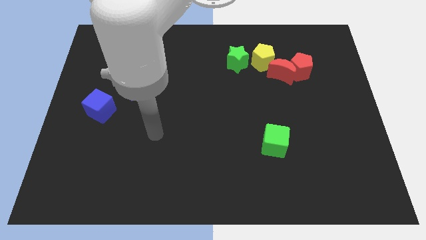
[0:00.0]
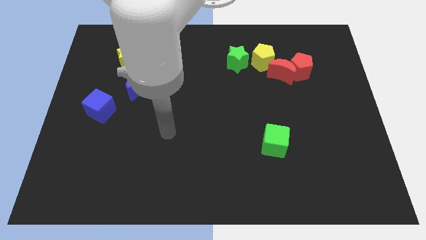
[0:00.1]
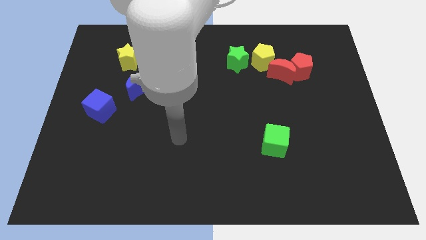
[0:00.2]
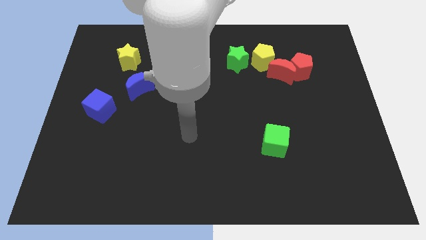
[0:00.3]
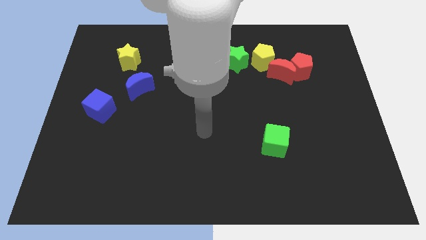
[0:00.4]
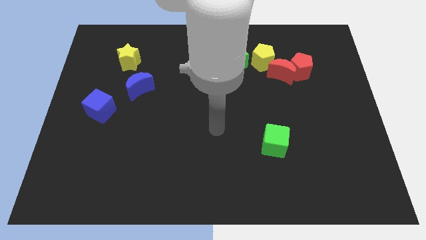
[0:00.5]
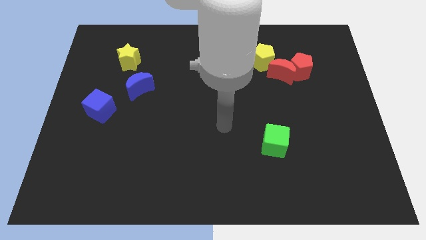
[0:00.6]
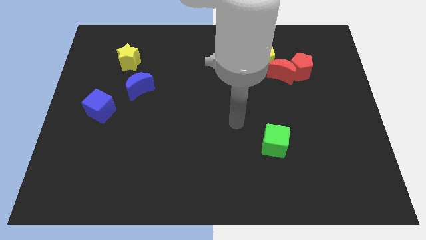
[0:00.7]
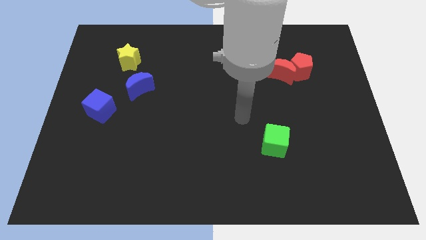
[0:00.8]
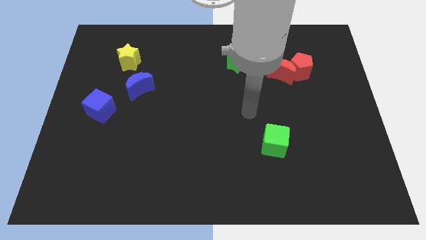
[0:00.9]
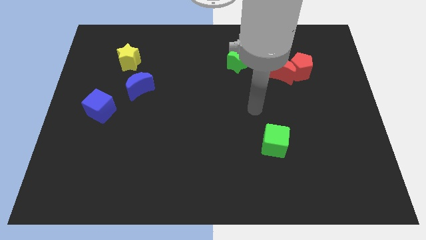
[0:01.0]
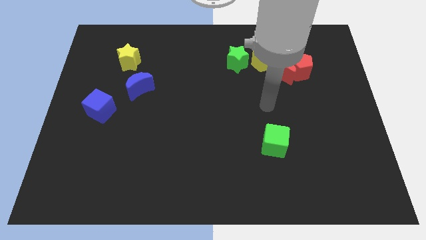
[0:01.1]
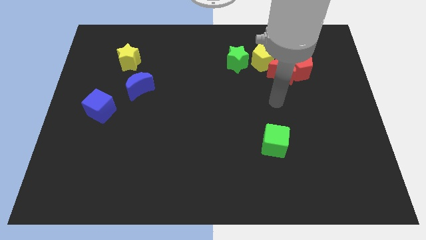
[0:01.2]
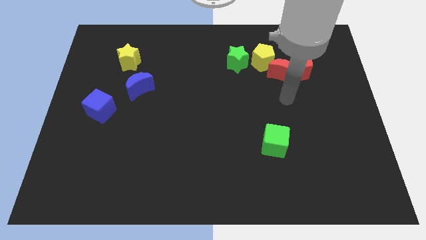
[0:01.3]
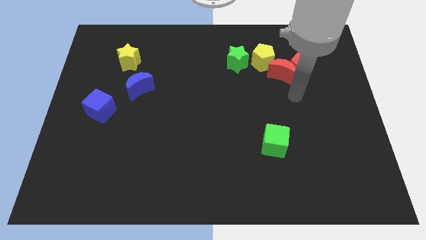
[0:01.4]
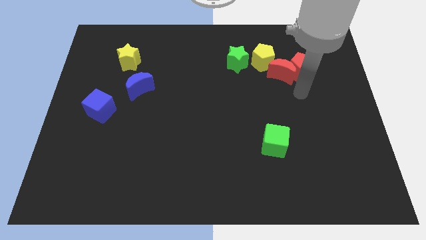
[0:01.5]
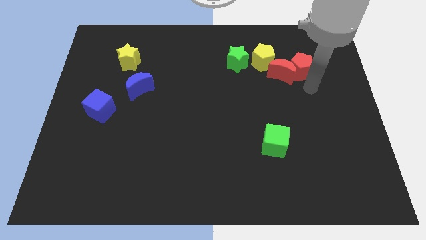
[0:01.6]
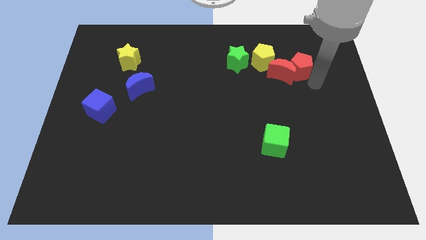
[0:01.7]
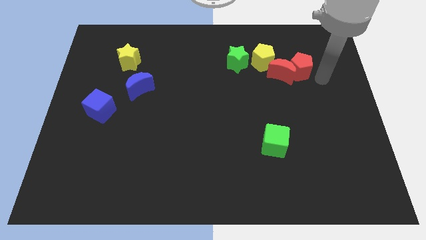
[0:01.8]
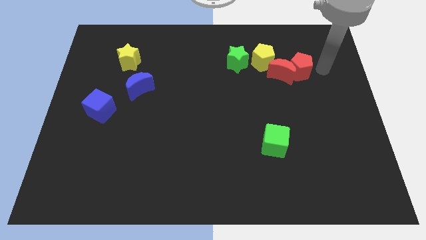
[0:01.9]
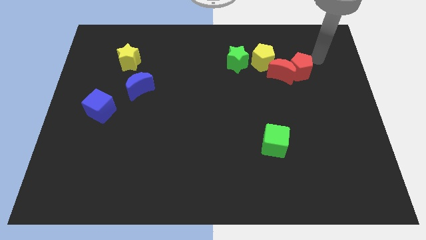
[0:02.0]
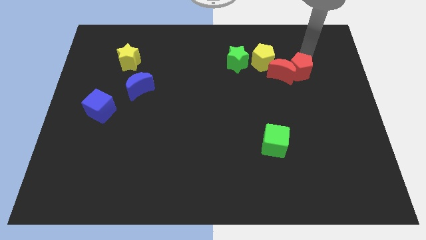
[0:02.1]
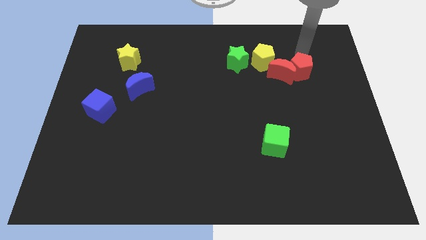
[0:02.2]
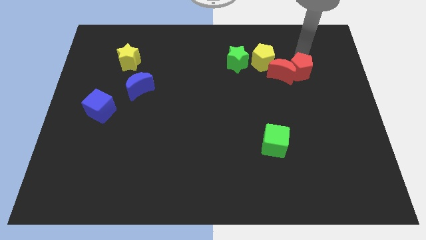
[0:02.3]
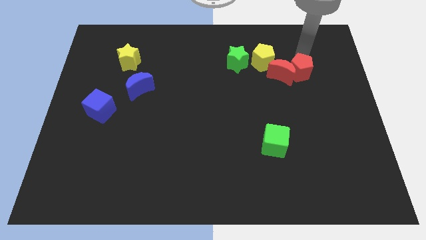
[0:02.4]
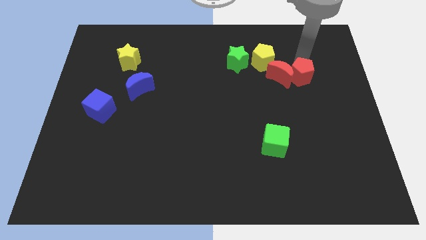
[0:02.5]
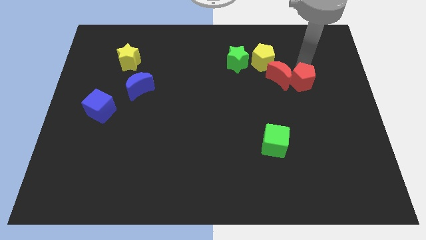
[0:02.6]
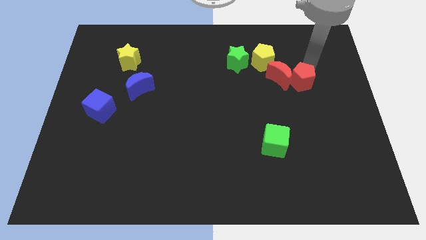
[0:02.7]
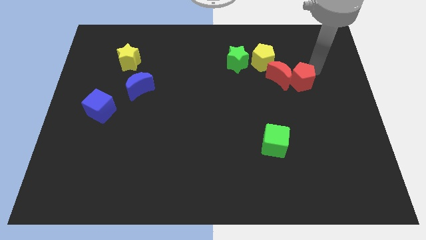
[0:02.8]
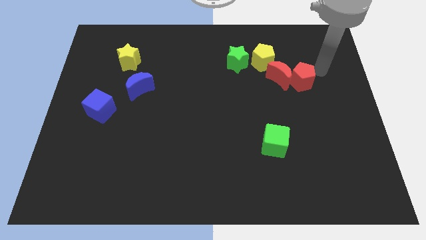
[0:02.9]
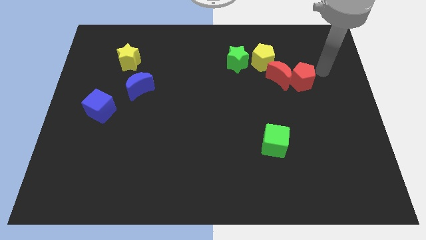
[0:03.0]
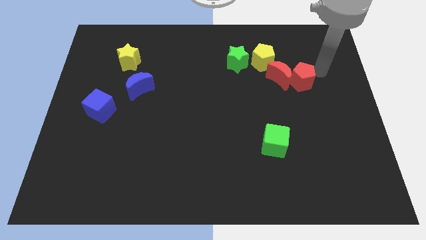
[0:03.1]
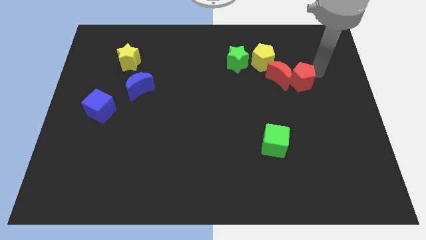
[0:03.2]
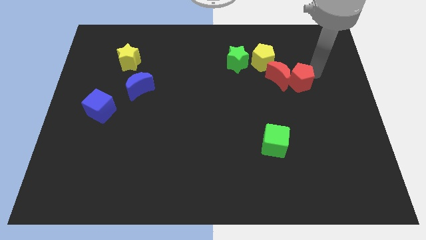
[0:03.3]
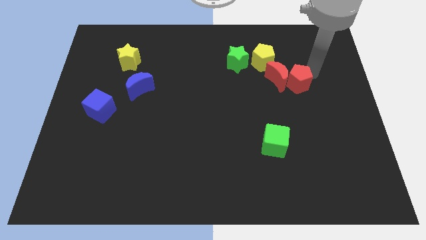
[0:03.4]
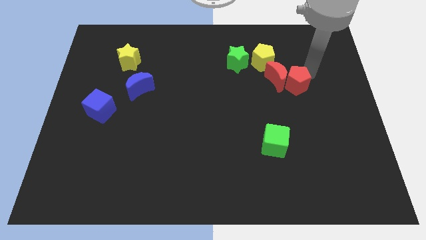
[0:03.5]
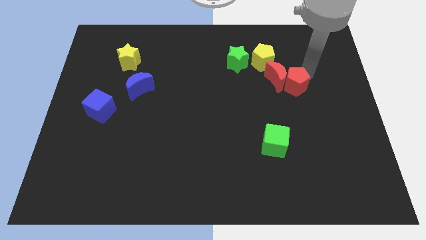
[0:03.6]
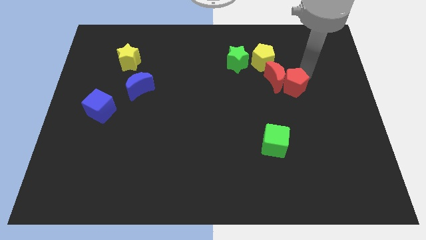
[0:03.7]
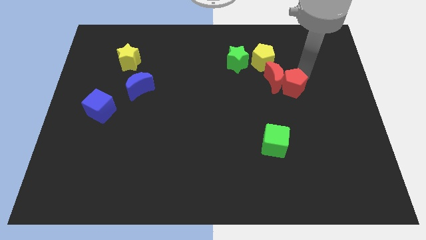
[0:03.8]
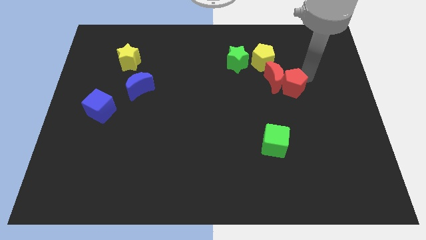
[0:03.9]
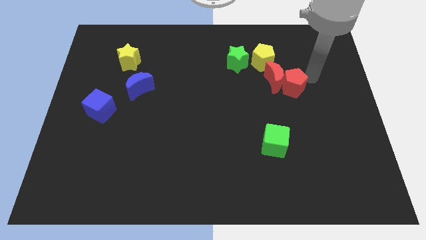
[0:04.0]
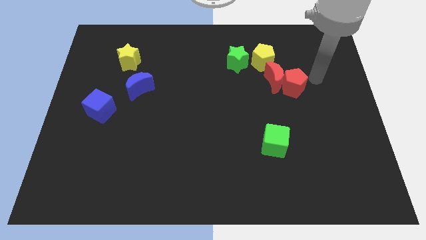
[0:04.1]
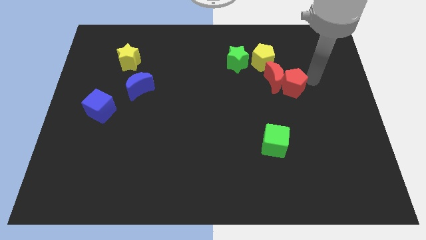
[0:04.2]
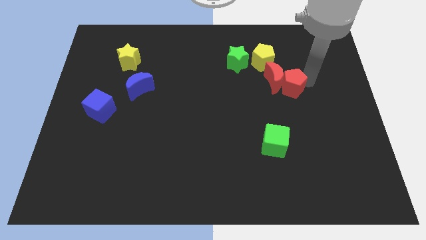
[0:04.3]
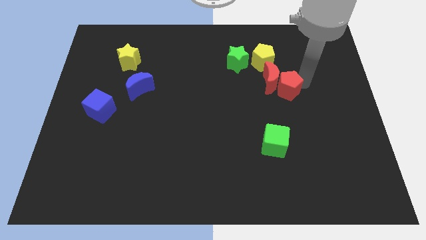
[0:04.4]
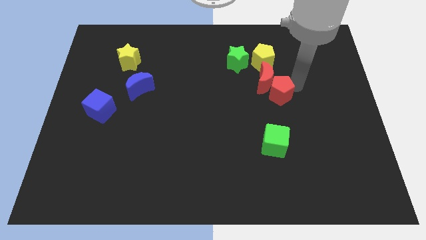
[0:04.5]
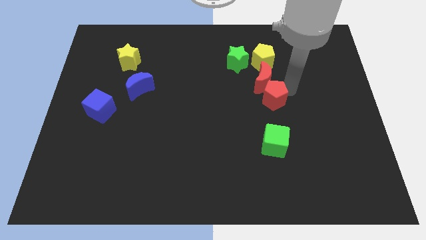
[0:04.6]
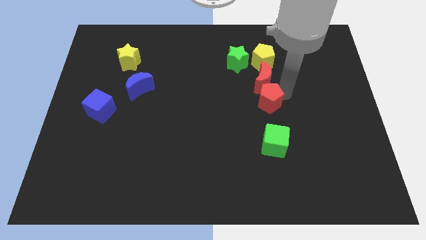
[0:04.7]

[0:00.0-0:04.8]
slide the red pentagon diagonally down and to the left of the red moon

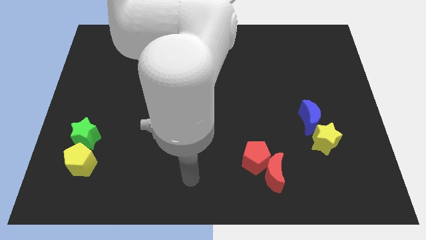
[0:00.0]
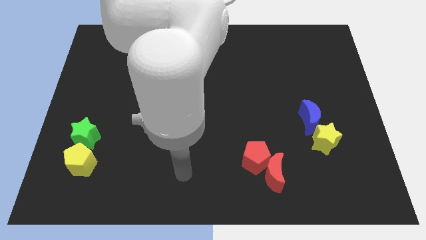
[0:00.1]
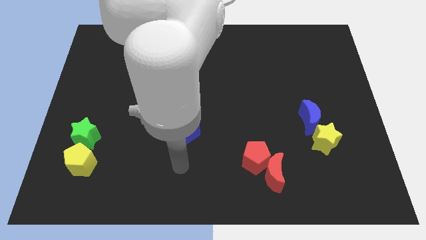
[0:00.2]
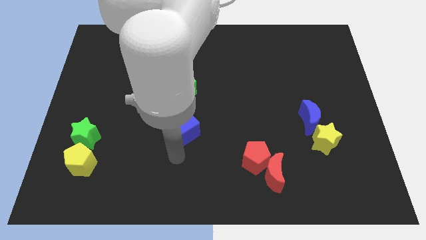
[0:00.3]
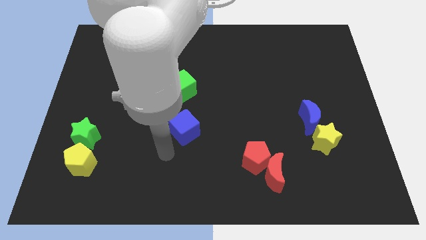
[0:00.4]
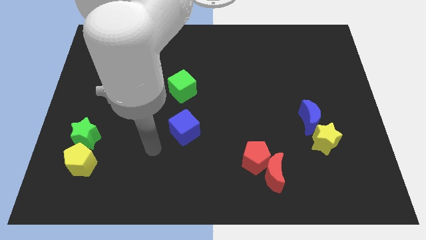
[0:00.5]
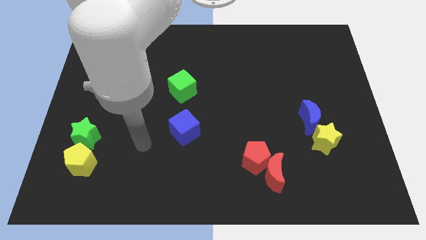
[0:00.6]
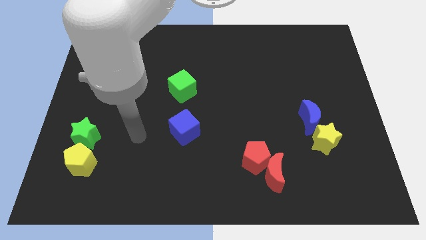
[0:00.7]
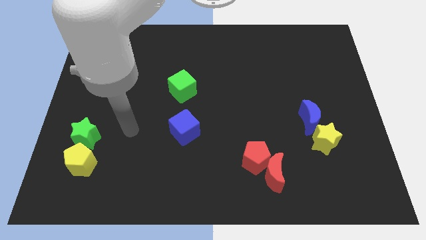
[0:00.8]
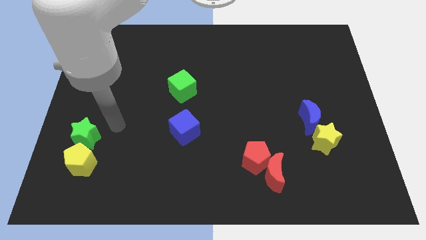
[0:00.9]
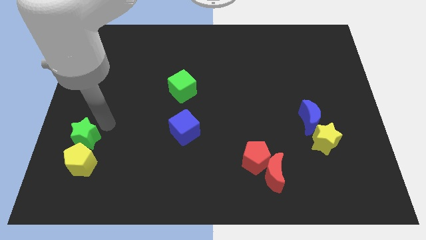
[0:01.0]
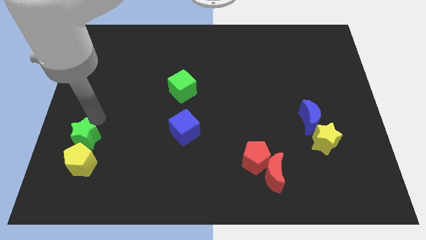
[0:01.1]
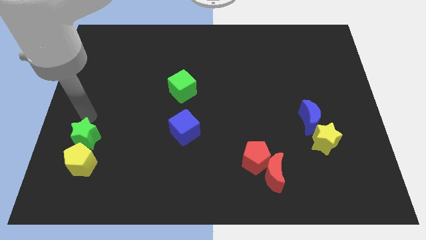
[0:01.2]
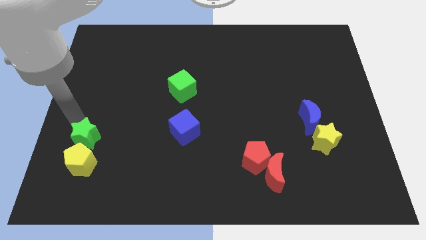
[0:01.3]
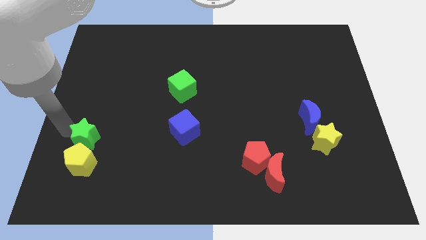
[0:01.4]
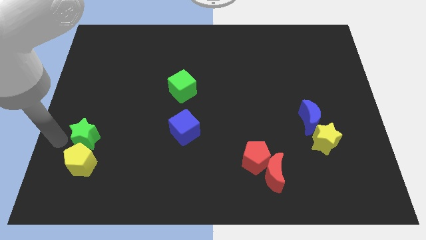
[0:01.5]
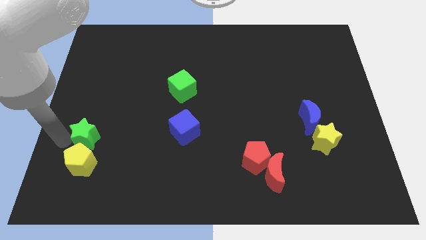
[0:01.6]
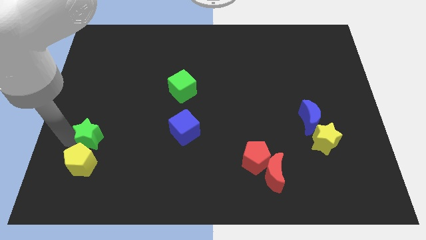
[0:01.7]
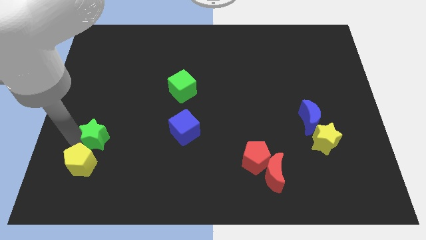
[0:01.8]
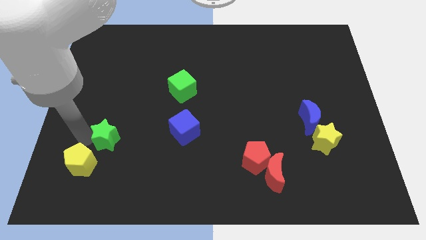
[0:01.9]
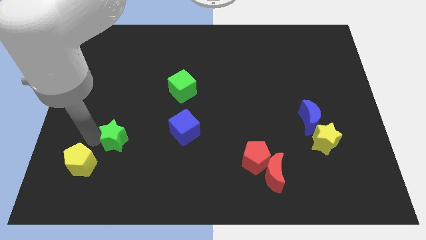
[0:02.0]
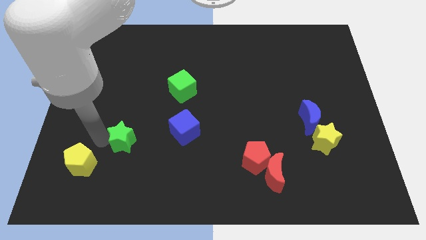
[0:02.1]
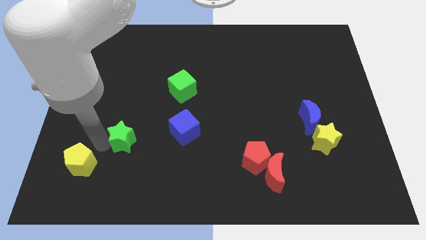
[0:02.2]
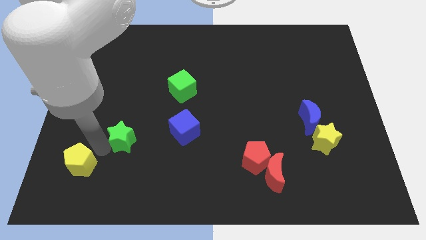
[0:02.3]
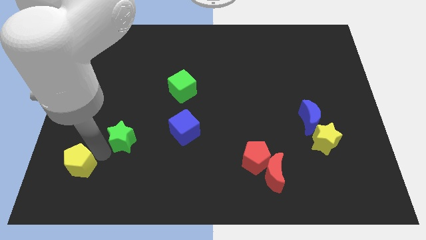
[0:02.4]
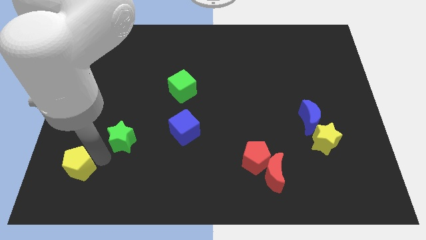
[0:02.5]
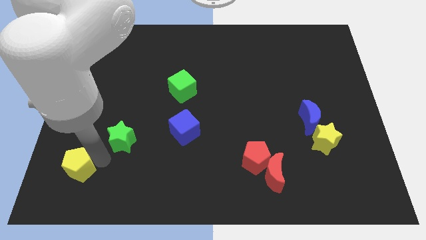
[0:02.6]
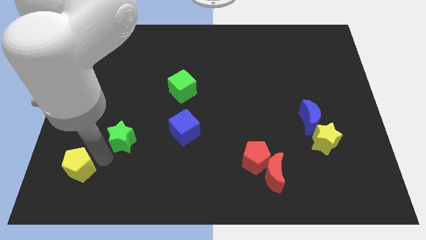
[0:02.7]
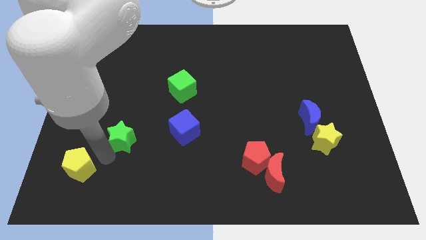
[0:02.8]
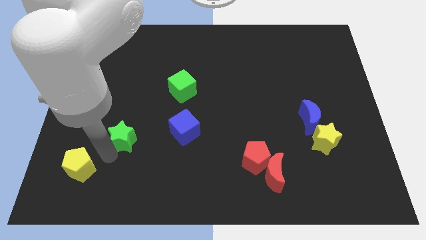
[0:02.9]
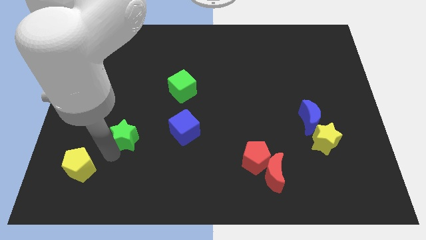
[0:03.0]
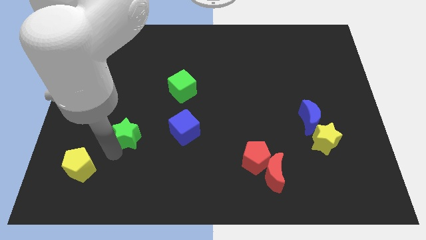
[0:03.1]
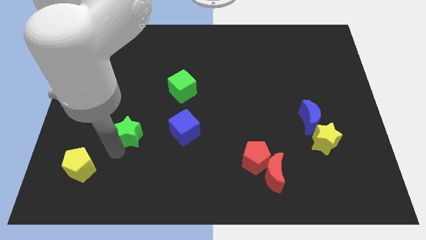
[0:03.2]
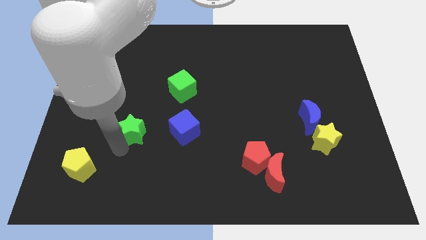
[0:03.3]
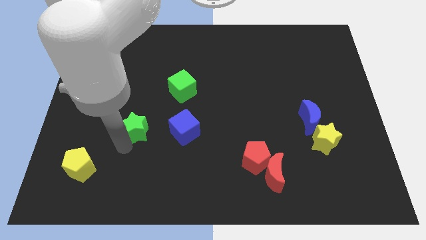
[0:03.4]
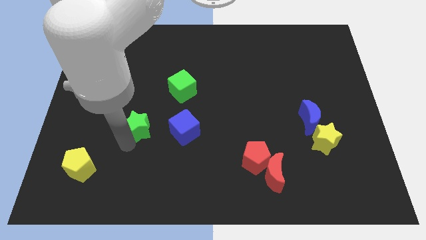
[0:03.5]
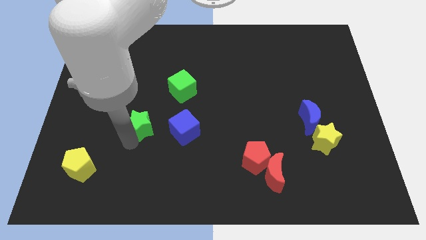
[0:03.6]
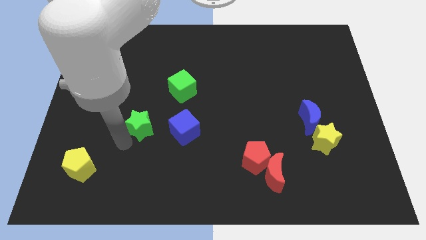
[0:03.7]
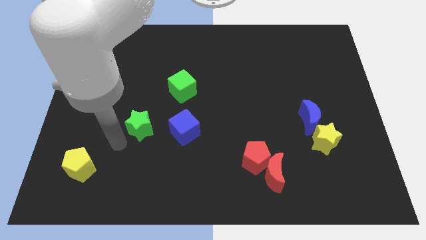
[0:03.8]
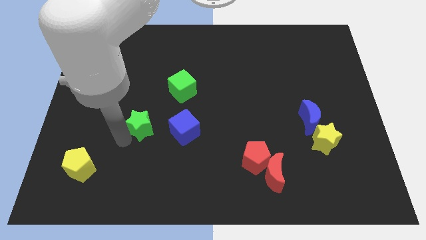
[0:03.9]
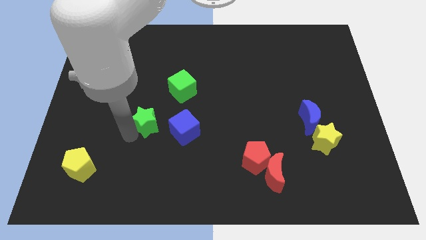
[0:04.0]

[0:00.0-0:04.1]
put the green star diagonally up and to the left of the blue cube
